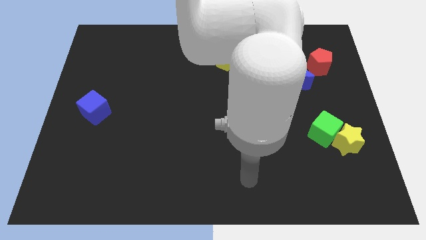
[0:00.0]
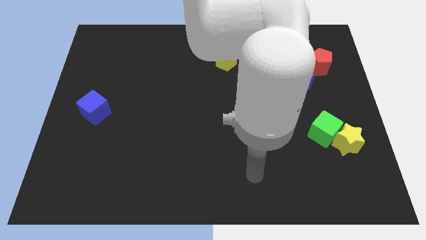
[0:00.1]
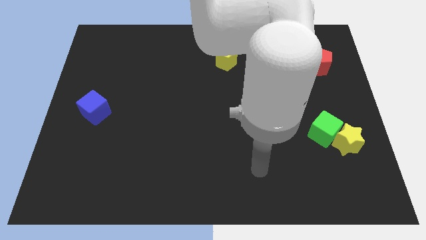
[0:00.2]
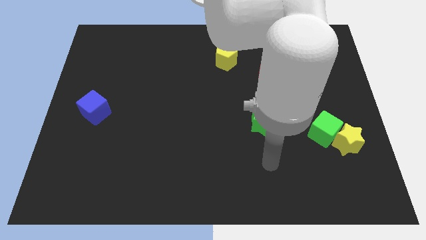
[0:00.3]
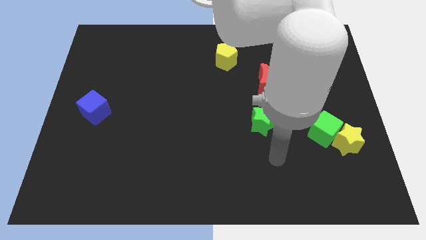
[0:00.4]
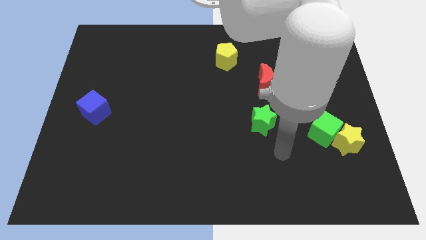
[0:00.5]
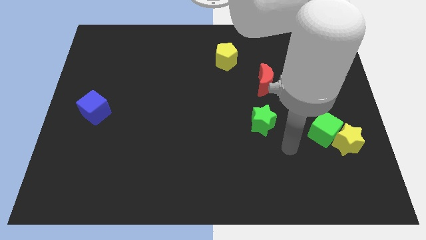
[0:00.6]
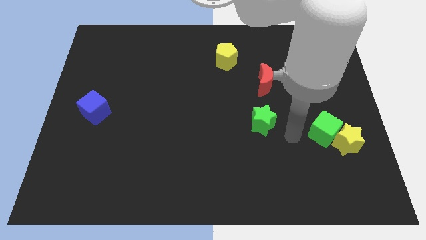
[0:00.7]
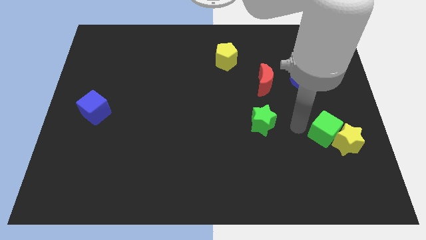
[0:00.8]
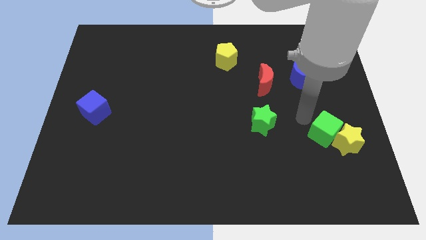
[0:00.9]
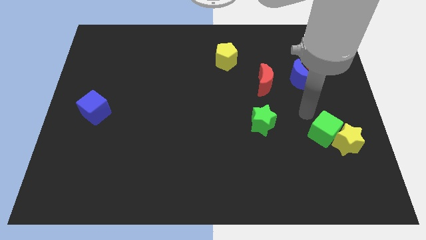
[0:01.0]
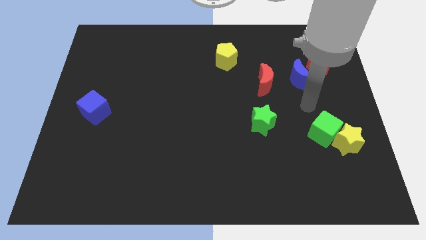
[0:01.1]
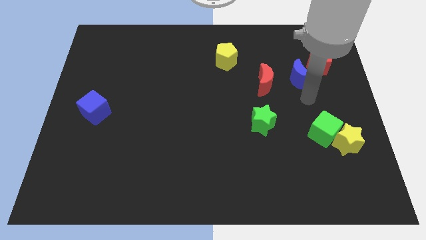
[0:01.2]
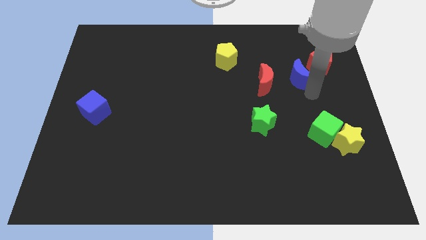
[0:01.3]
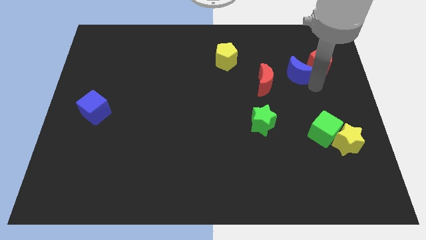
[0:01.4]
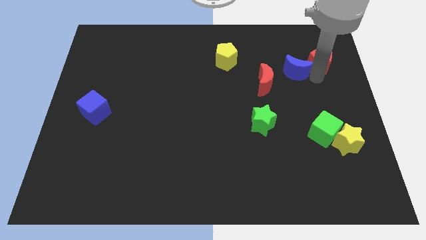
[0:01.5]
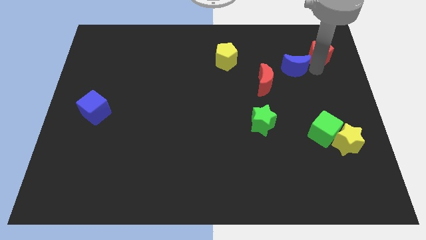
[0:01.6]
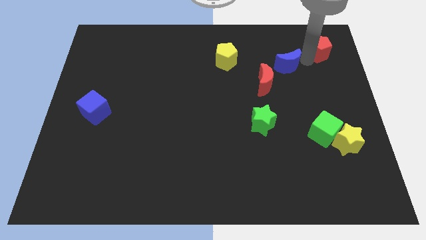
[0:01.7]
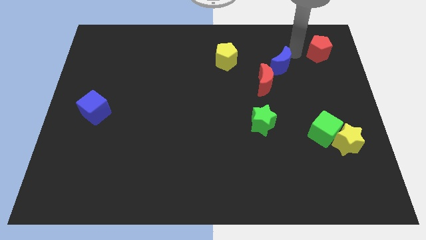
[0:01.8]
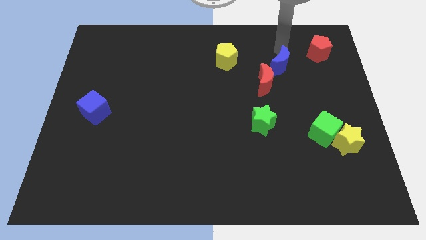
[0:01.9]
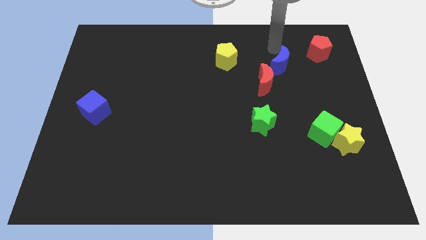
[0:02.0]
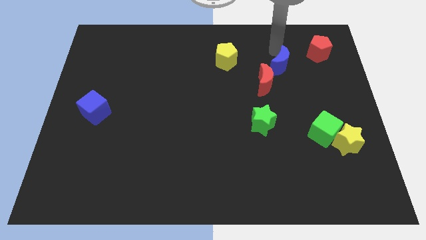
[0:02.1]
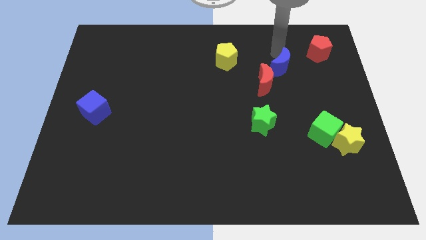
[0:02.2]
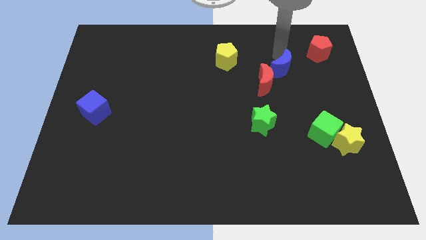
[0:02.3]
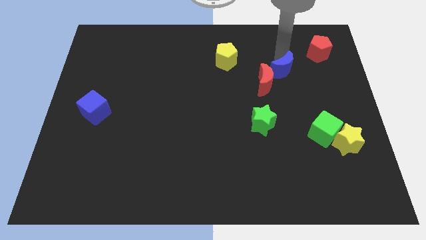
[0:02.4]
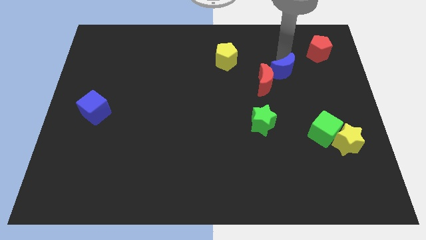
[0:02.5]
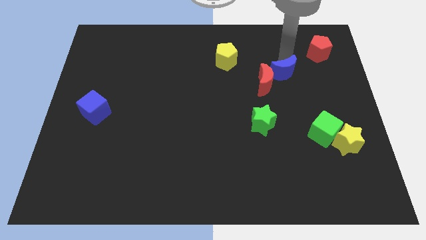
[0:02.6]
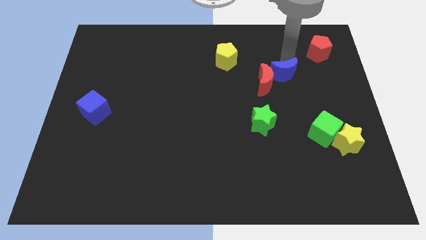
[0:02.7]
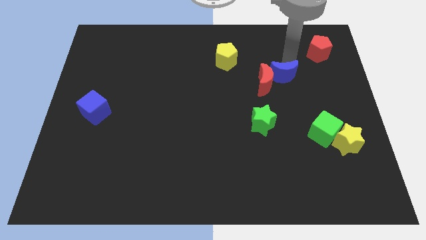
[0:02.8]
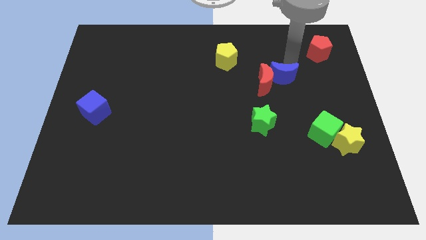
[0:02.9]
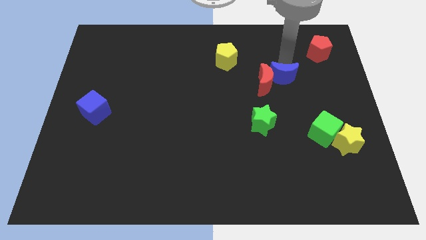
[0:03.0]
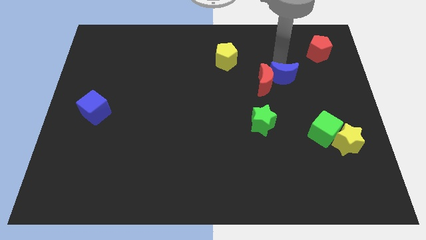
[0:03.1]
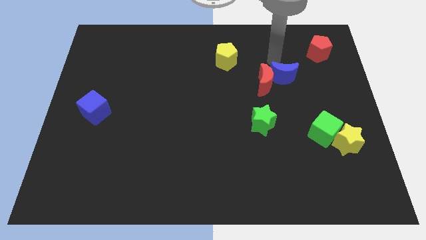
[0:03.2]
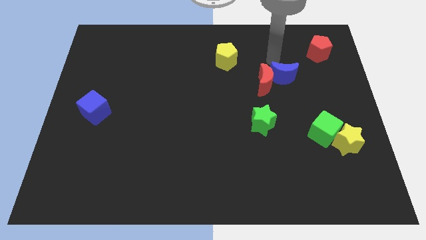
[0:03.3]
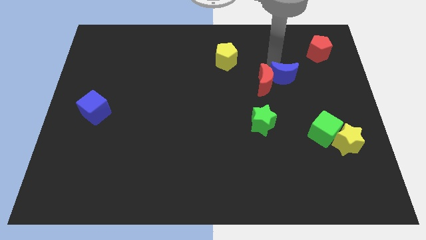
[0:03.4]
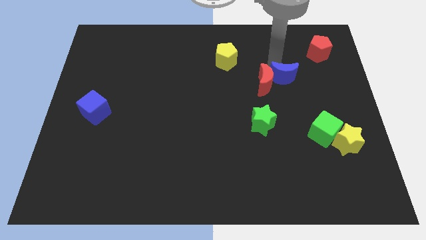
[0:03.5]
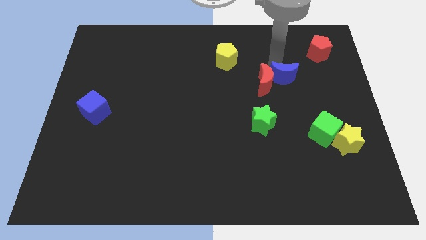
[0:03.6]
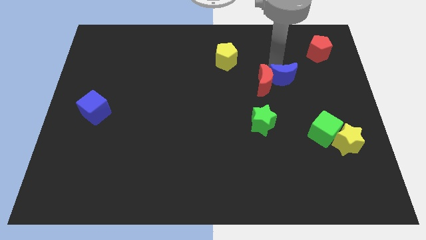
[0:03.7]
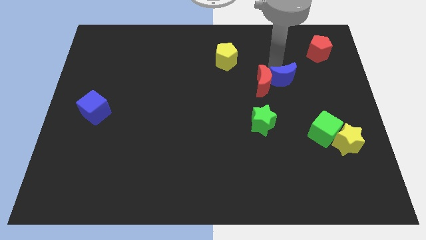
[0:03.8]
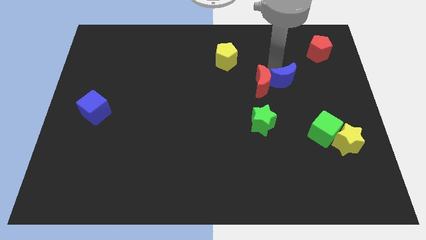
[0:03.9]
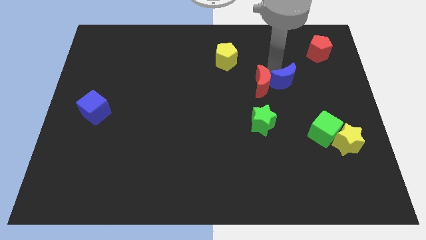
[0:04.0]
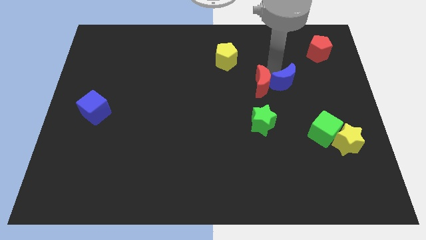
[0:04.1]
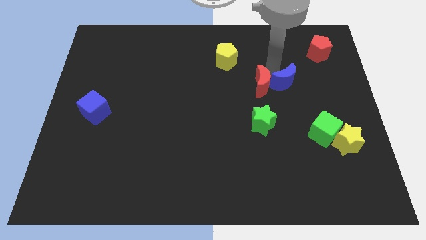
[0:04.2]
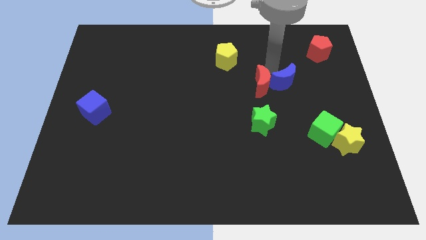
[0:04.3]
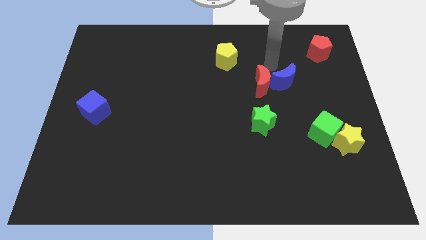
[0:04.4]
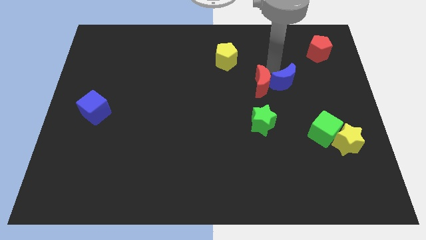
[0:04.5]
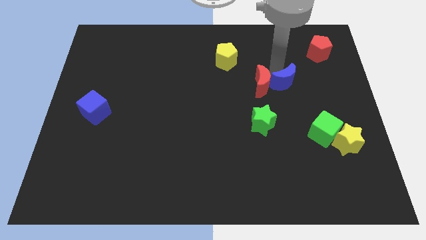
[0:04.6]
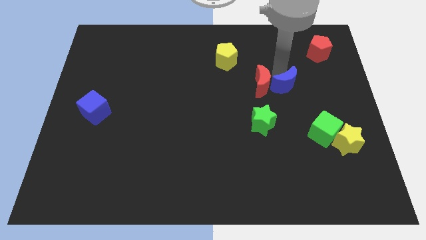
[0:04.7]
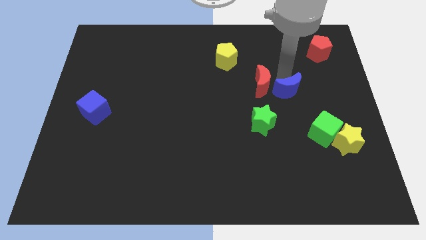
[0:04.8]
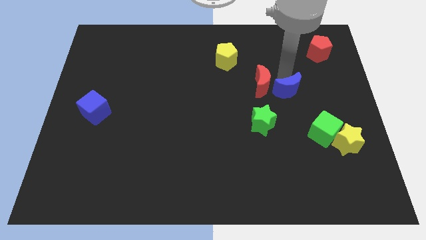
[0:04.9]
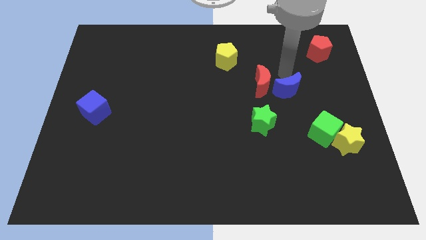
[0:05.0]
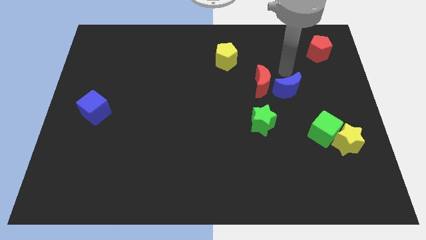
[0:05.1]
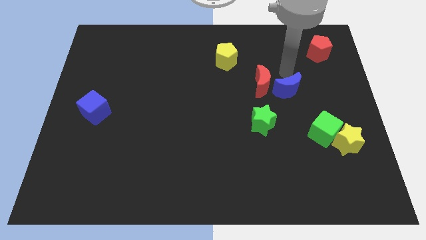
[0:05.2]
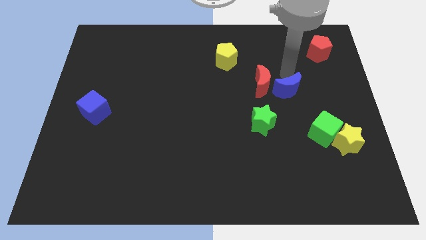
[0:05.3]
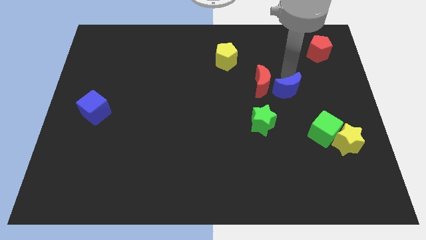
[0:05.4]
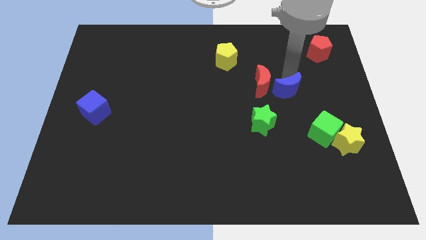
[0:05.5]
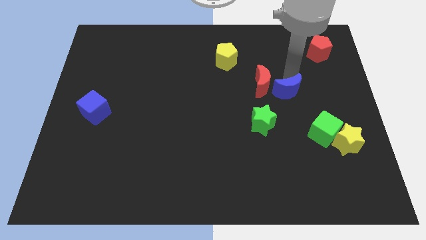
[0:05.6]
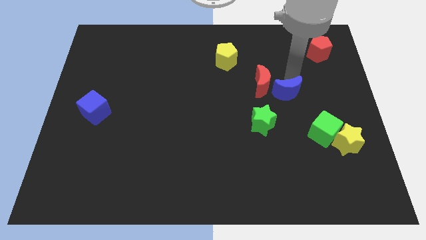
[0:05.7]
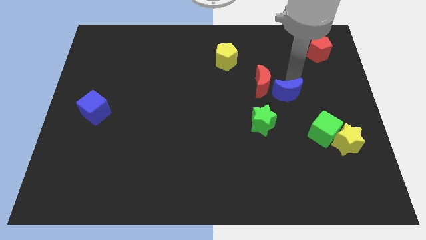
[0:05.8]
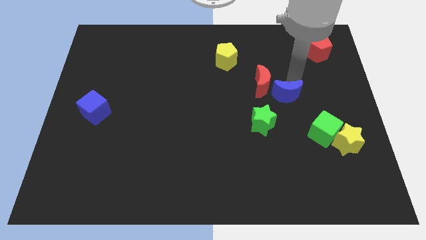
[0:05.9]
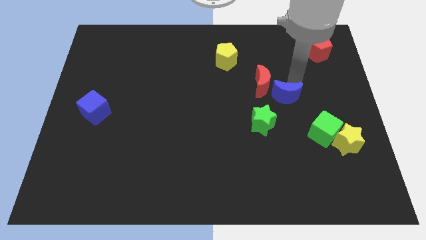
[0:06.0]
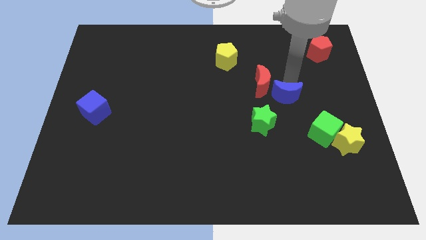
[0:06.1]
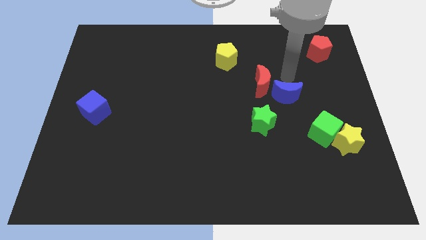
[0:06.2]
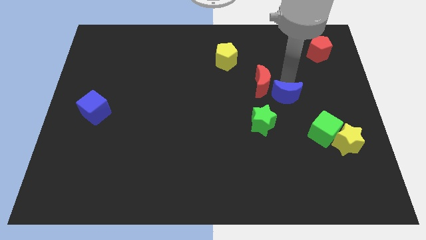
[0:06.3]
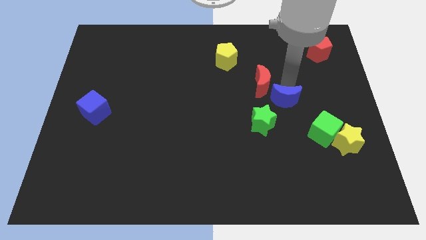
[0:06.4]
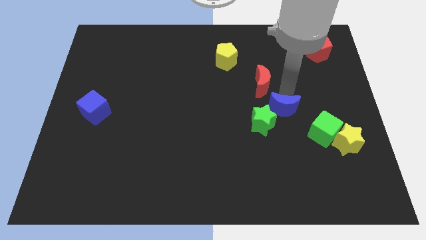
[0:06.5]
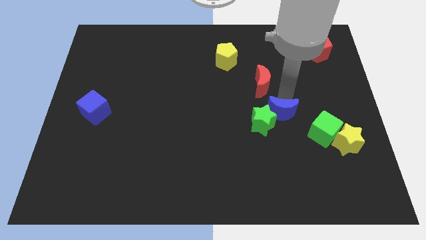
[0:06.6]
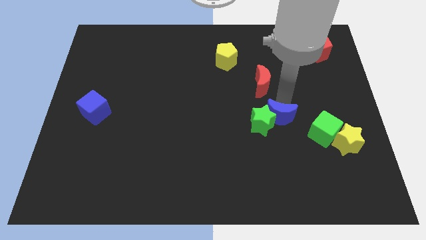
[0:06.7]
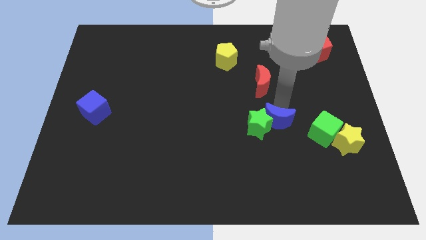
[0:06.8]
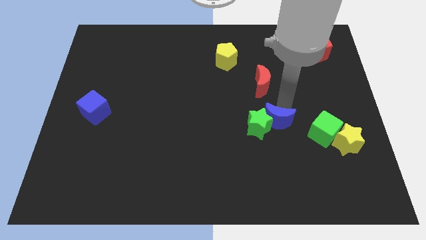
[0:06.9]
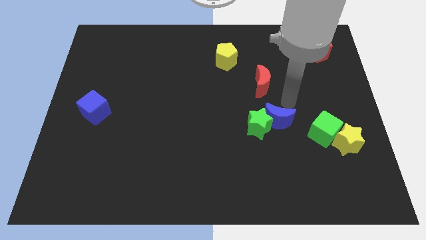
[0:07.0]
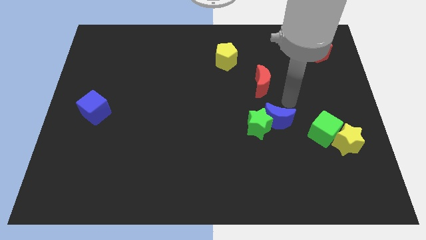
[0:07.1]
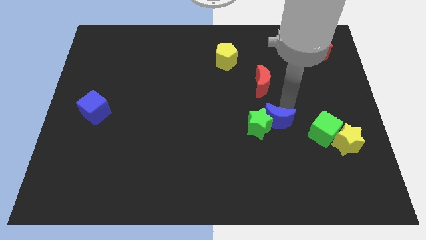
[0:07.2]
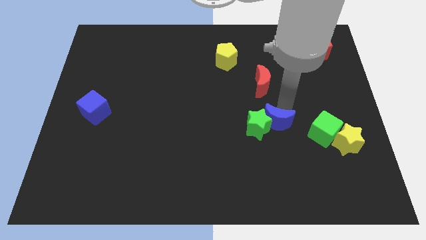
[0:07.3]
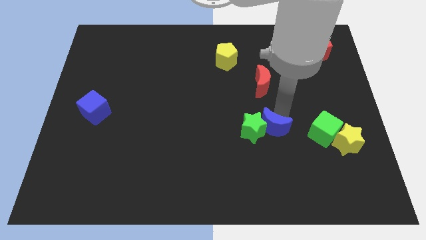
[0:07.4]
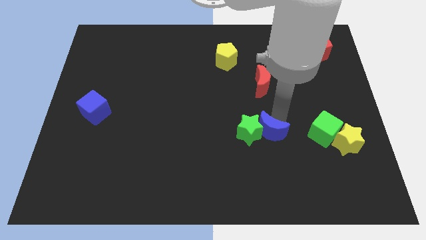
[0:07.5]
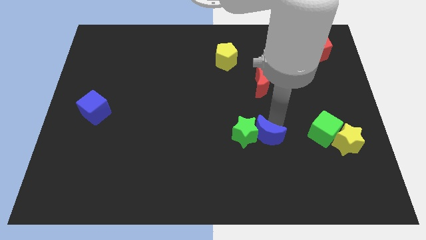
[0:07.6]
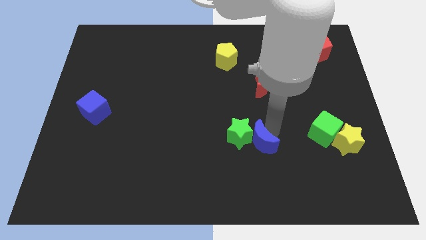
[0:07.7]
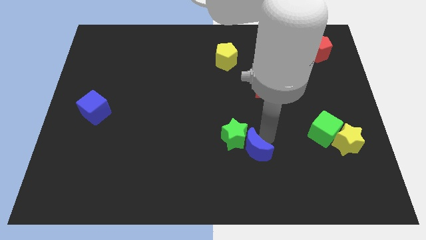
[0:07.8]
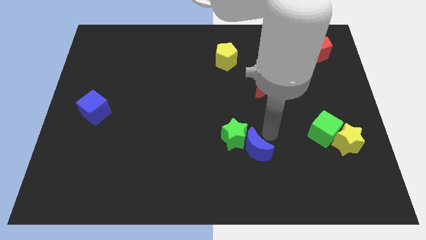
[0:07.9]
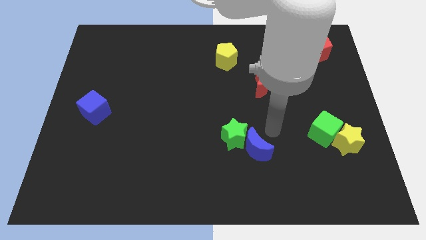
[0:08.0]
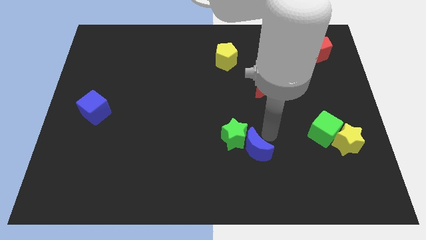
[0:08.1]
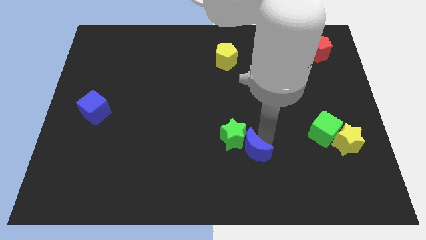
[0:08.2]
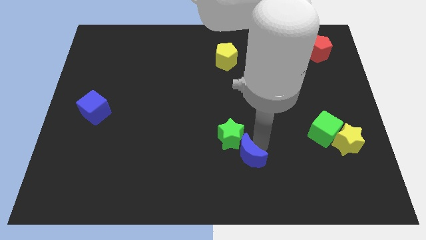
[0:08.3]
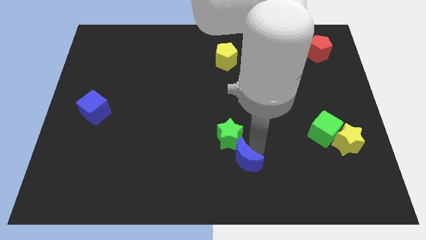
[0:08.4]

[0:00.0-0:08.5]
put the blue moon to the bottom side
